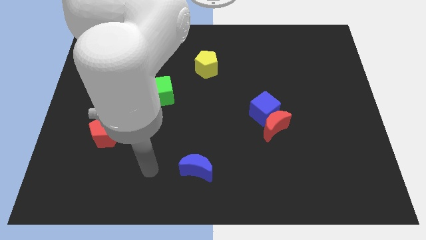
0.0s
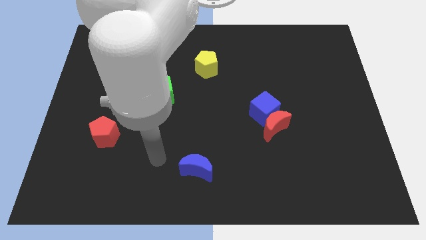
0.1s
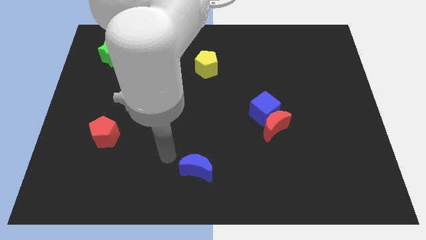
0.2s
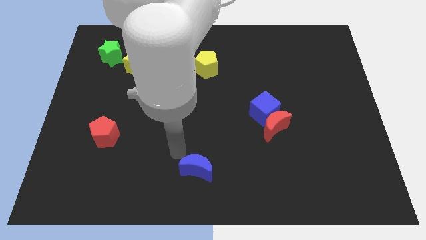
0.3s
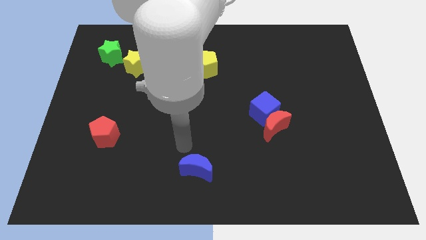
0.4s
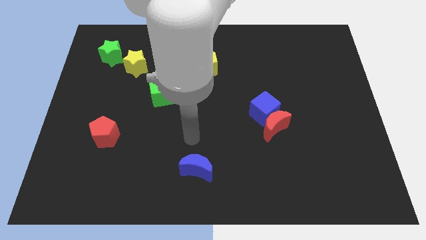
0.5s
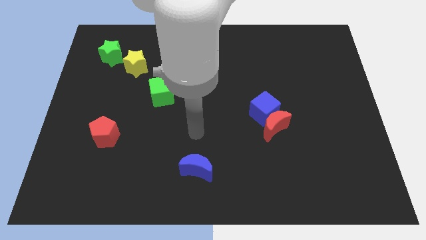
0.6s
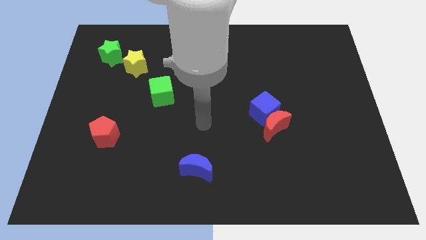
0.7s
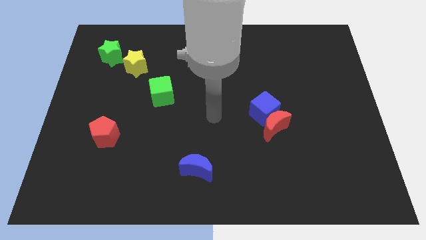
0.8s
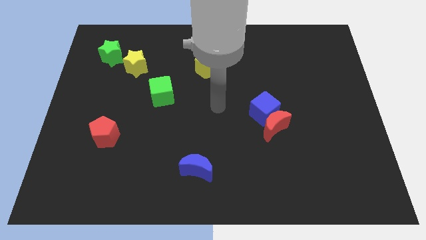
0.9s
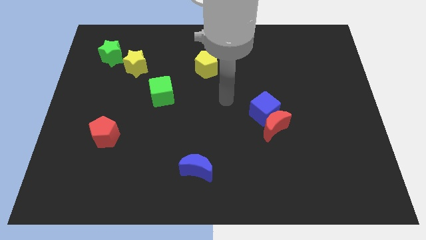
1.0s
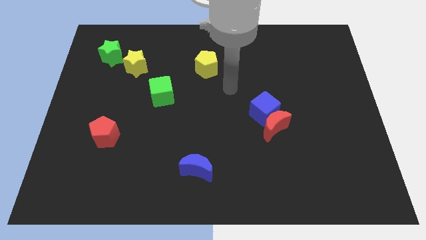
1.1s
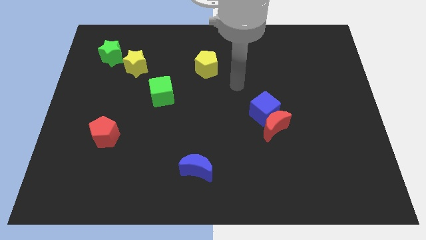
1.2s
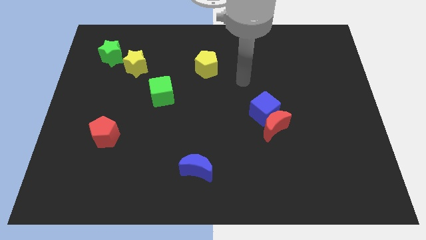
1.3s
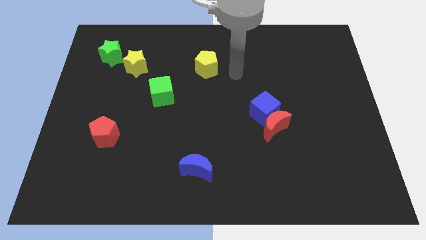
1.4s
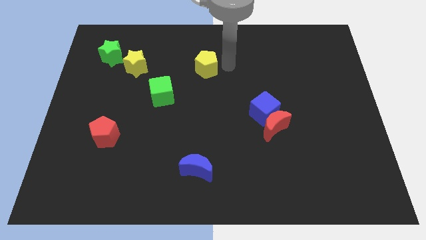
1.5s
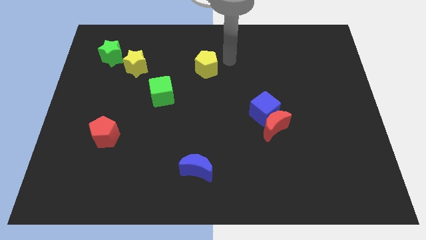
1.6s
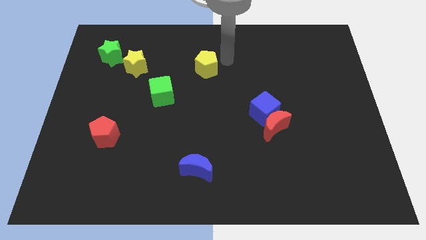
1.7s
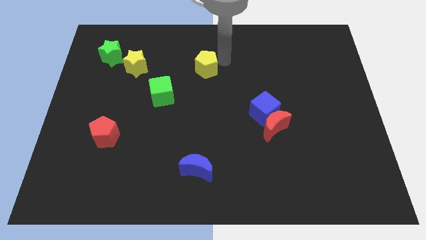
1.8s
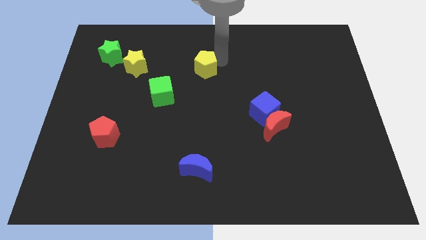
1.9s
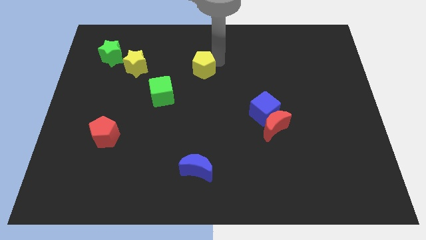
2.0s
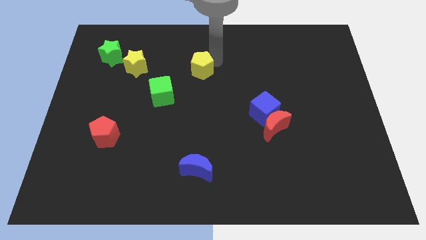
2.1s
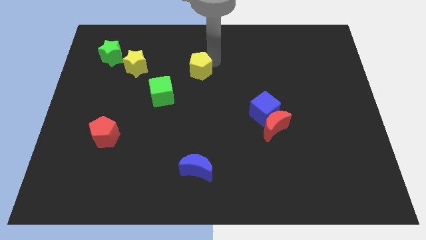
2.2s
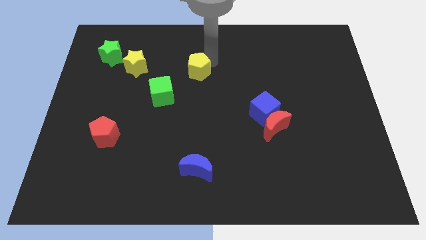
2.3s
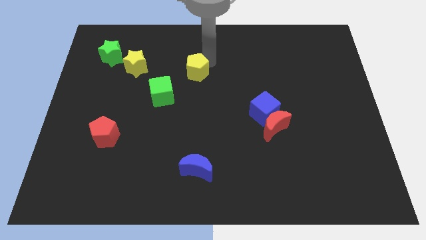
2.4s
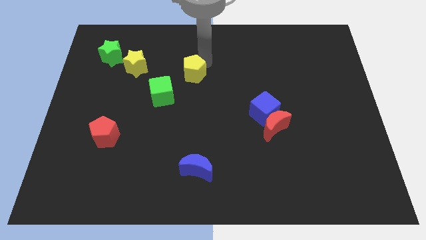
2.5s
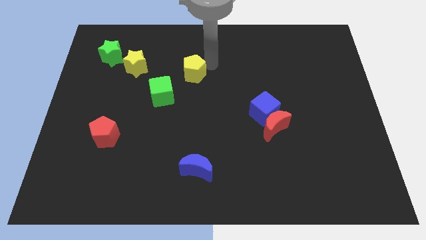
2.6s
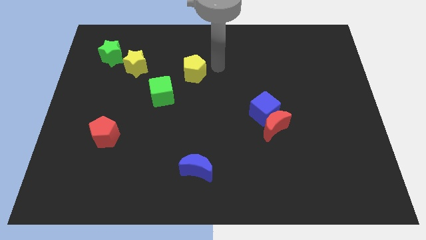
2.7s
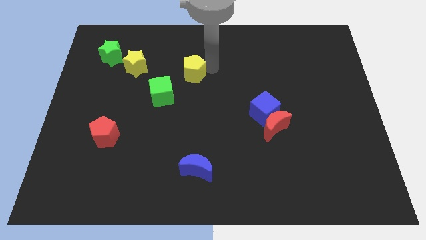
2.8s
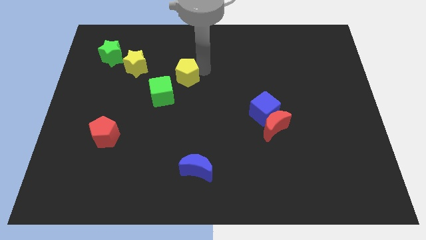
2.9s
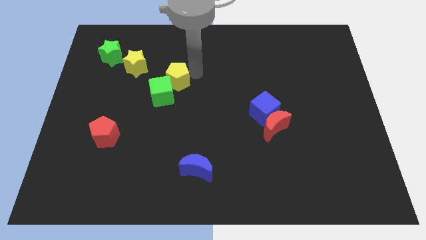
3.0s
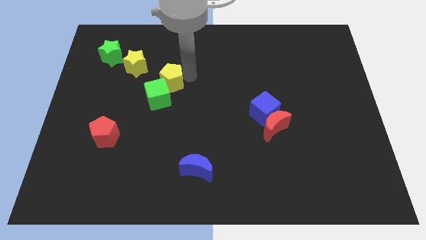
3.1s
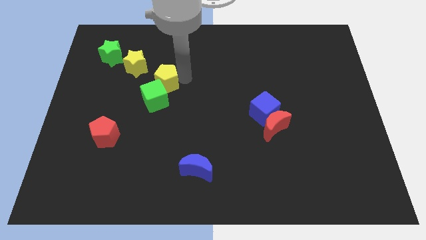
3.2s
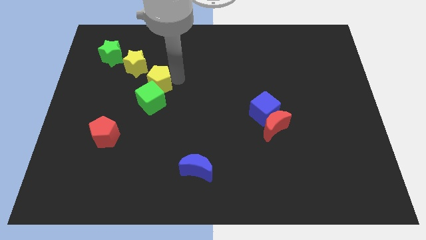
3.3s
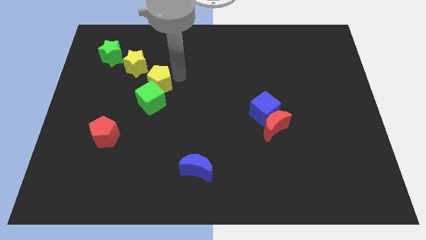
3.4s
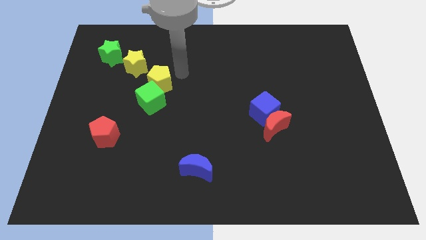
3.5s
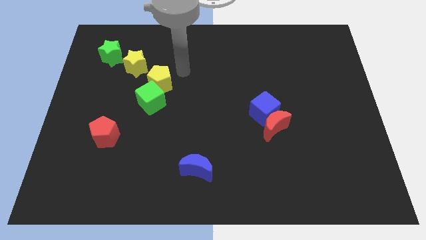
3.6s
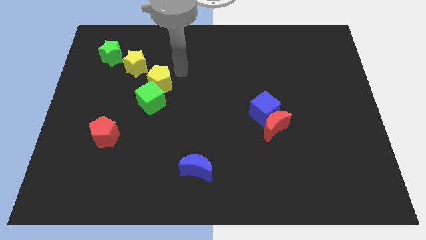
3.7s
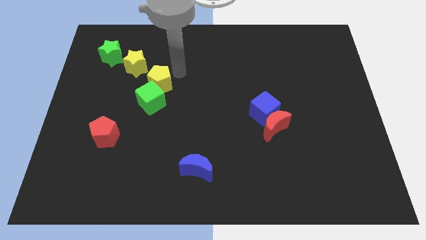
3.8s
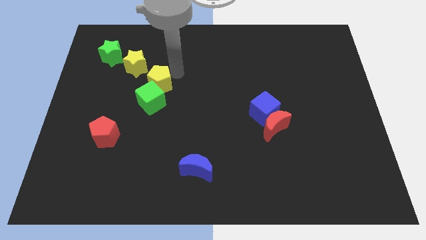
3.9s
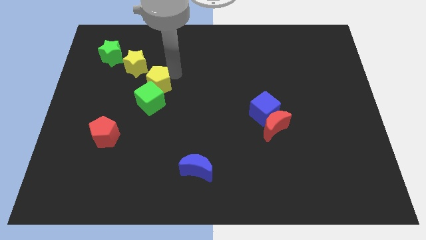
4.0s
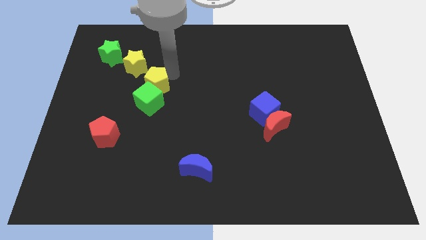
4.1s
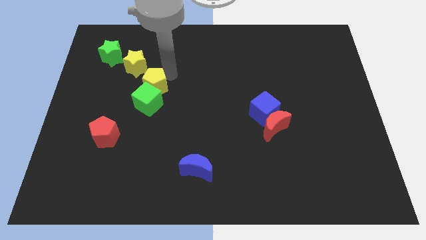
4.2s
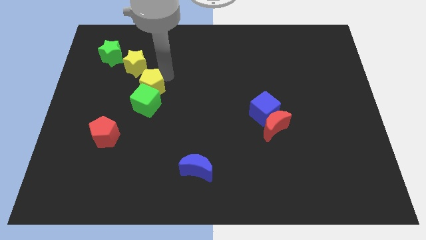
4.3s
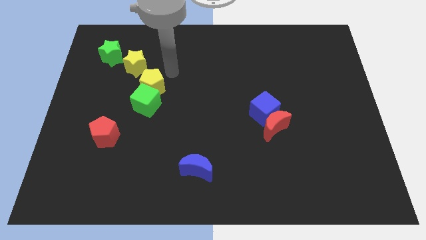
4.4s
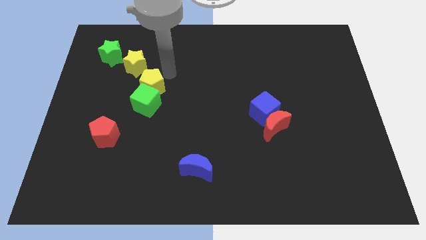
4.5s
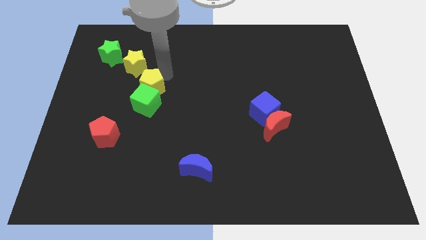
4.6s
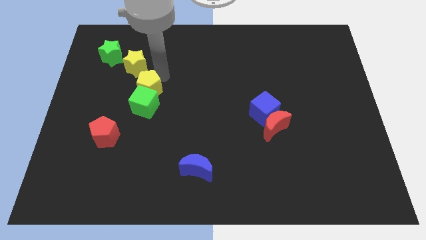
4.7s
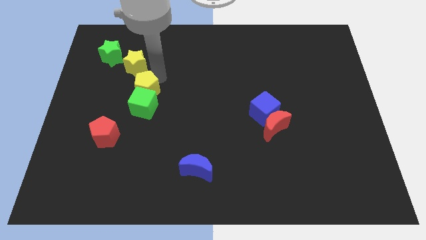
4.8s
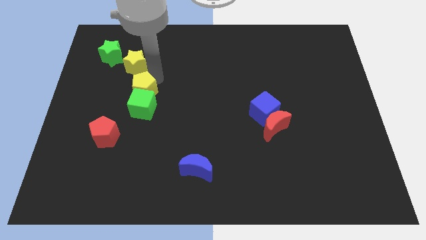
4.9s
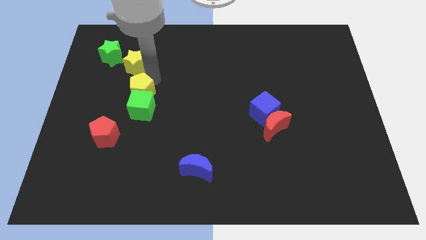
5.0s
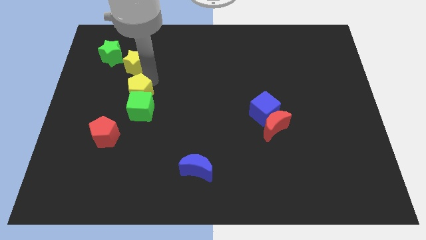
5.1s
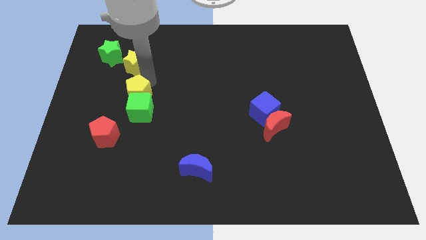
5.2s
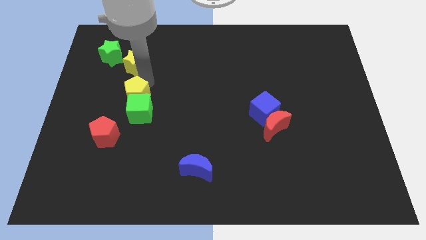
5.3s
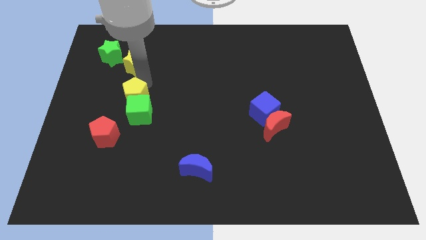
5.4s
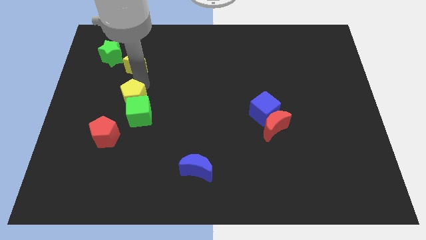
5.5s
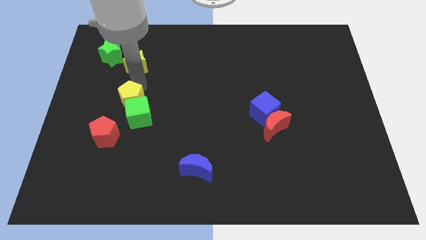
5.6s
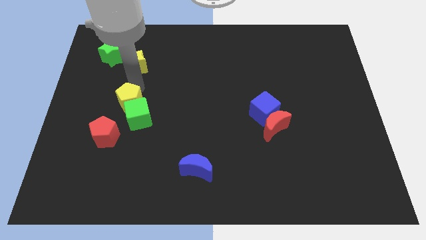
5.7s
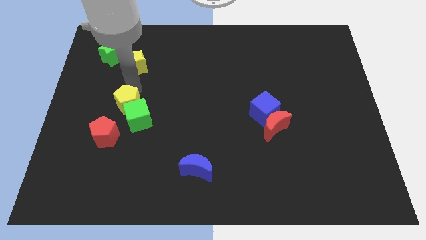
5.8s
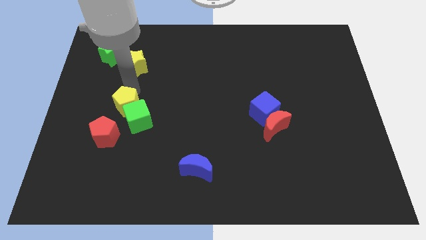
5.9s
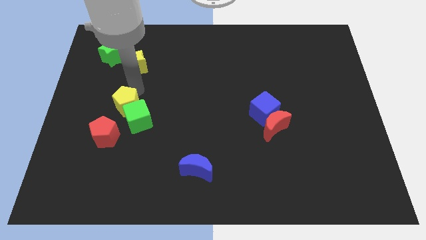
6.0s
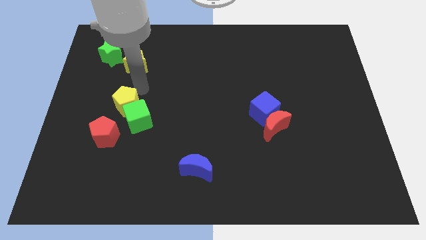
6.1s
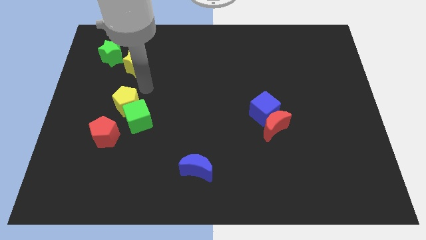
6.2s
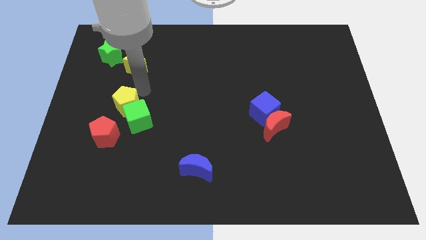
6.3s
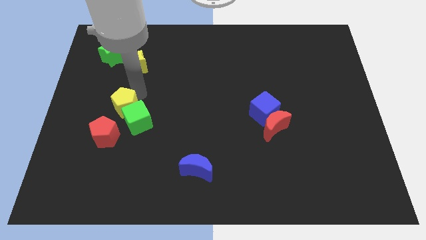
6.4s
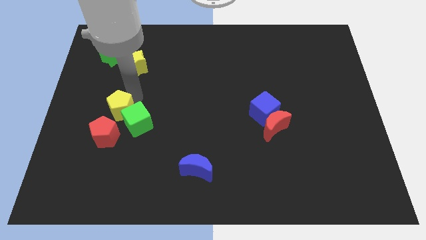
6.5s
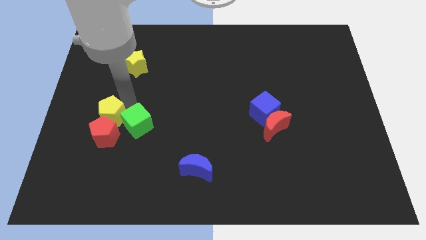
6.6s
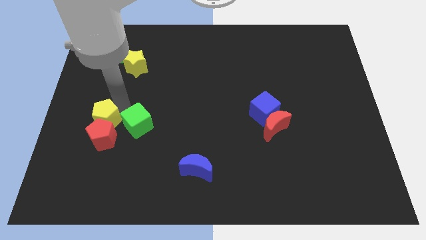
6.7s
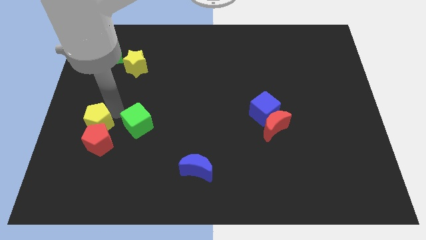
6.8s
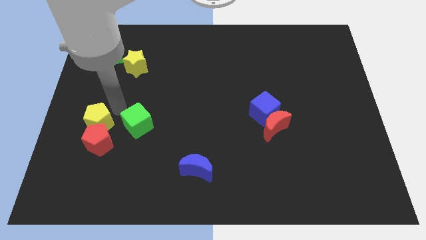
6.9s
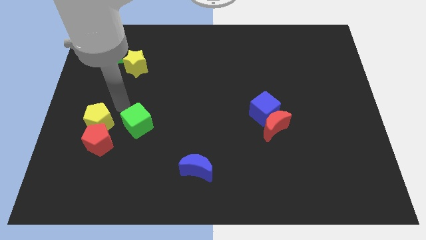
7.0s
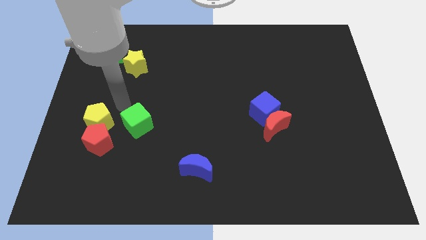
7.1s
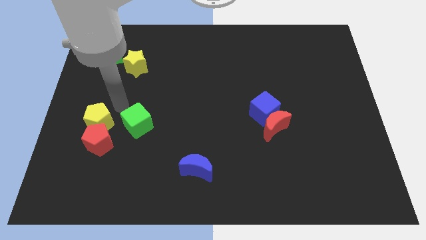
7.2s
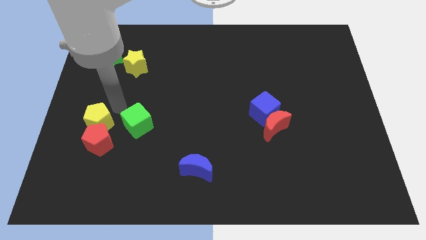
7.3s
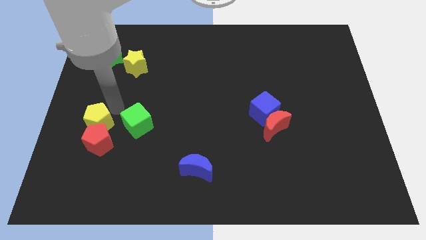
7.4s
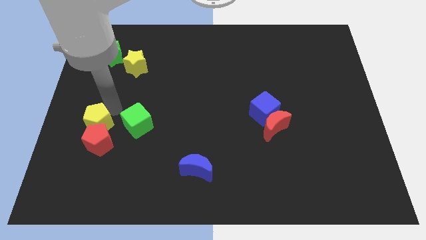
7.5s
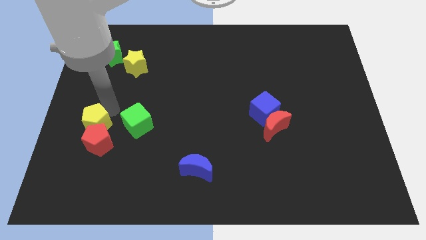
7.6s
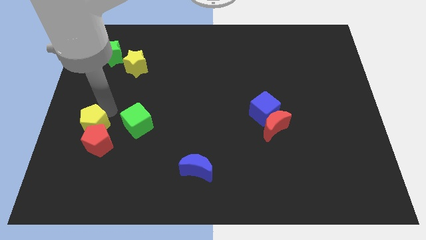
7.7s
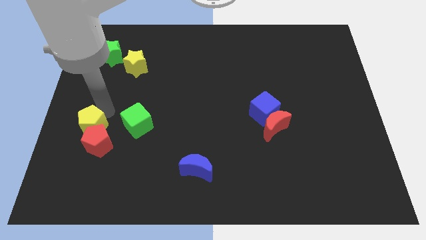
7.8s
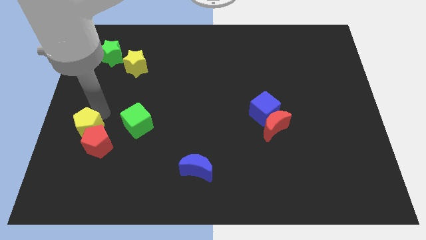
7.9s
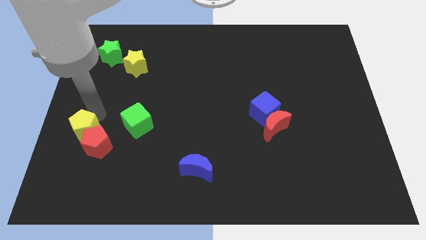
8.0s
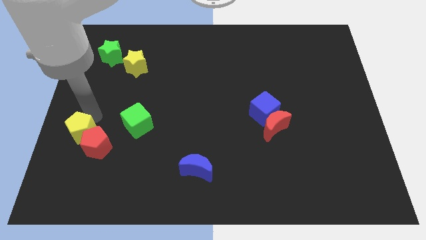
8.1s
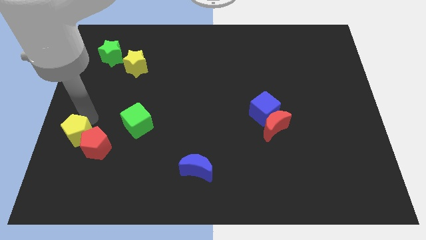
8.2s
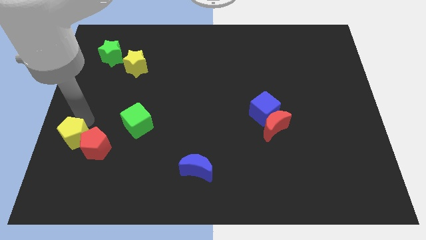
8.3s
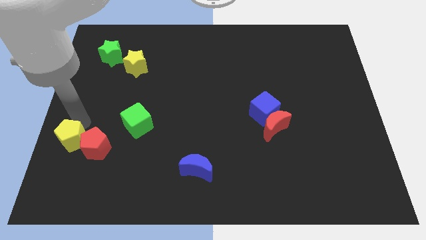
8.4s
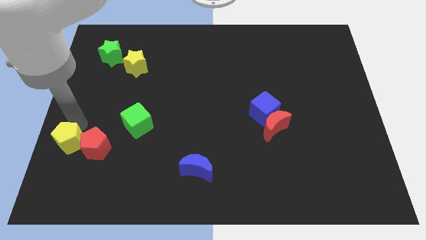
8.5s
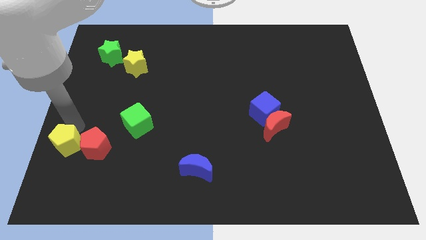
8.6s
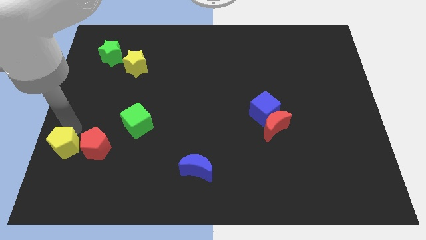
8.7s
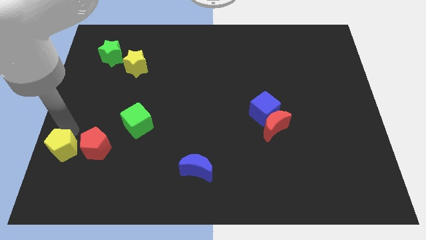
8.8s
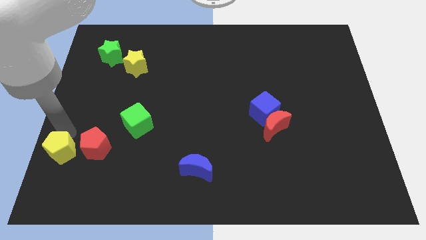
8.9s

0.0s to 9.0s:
slide the yellow pentagon diagonally down and to the left of the red pentagon
